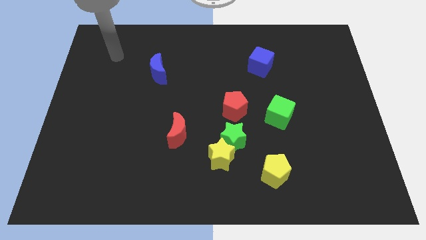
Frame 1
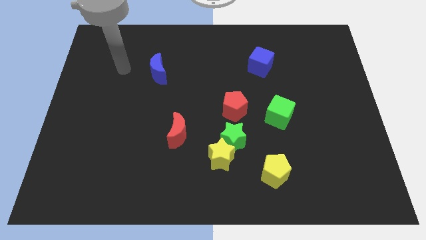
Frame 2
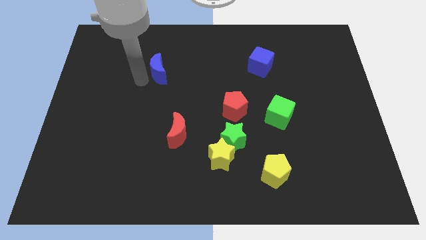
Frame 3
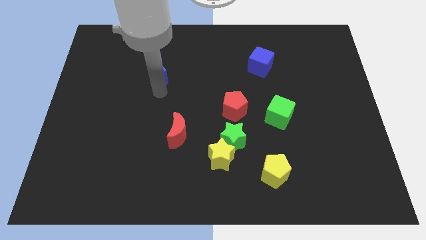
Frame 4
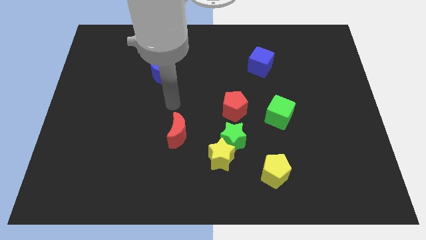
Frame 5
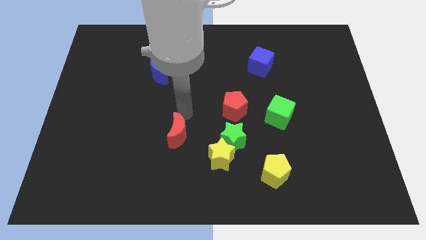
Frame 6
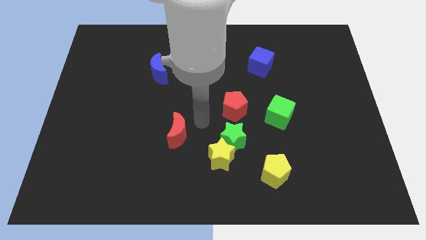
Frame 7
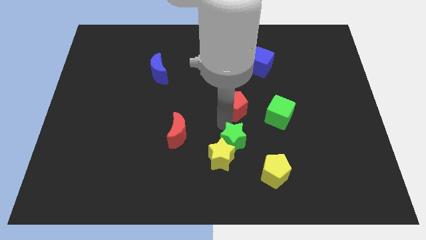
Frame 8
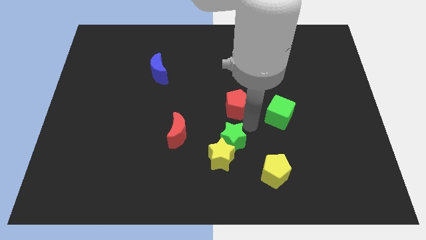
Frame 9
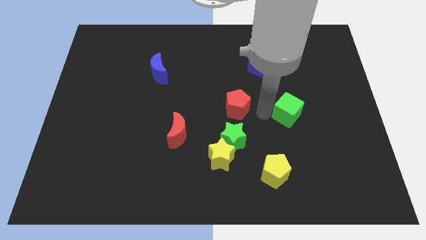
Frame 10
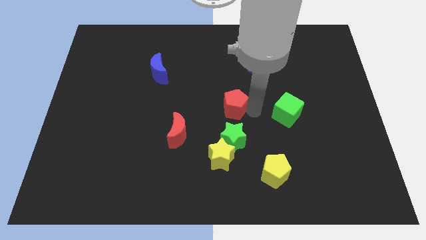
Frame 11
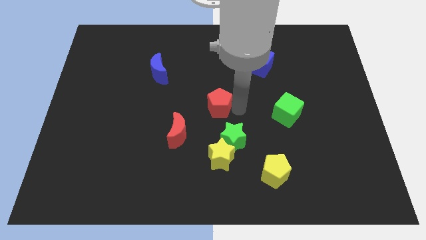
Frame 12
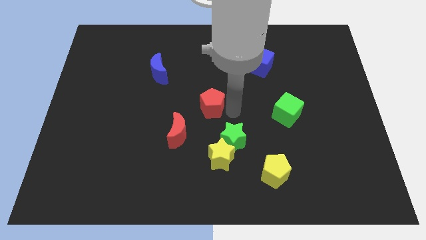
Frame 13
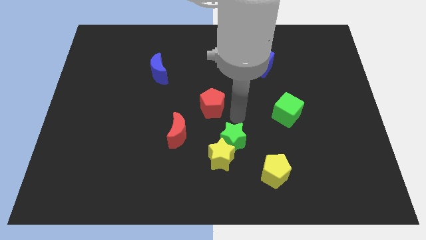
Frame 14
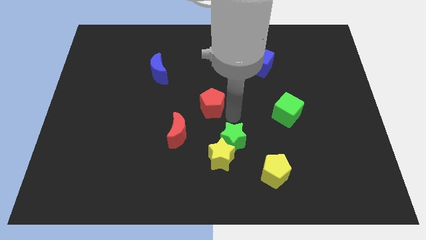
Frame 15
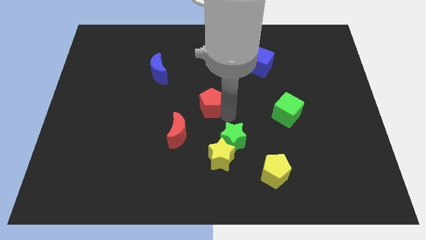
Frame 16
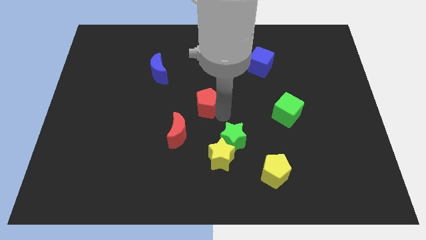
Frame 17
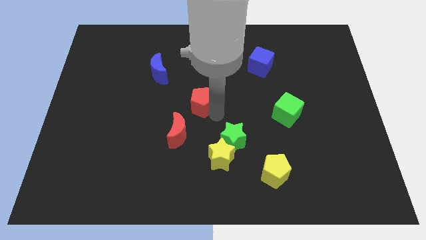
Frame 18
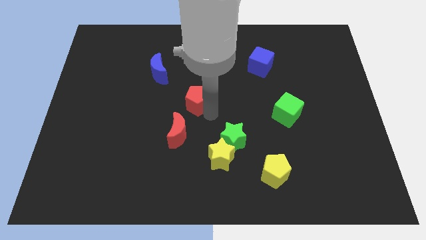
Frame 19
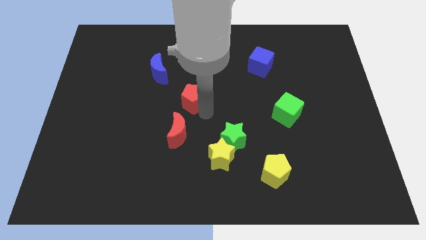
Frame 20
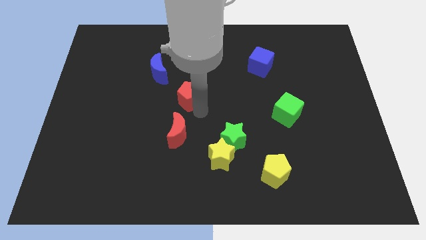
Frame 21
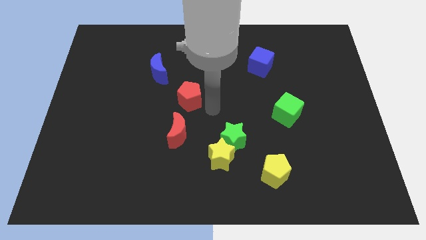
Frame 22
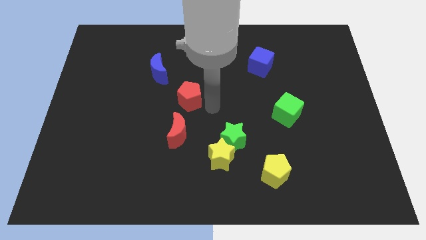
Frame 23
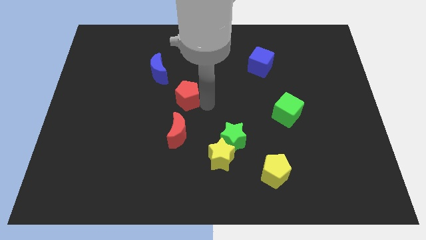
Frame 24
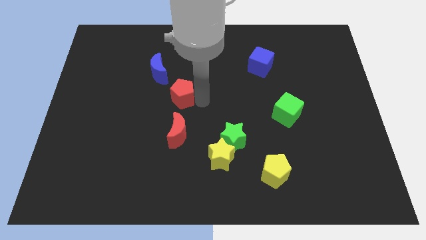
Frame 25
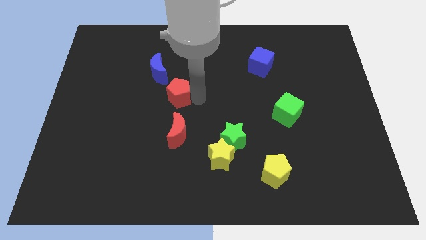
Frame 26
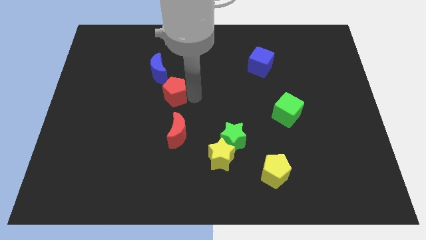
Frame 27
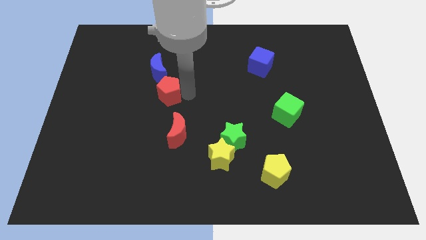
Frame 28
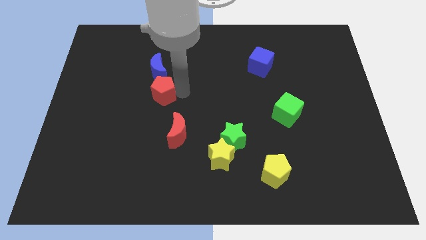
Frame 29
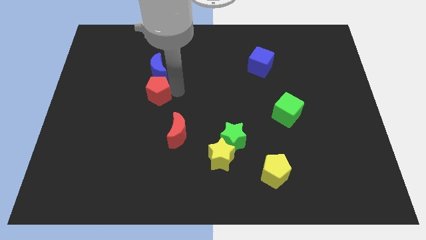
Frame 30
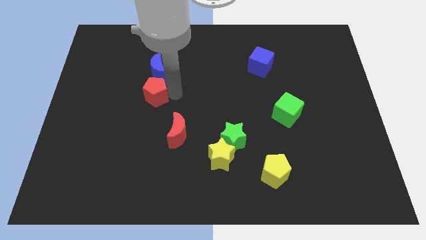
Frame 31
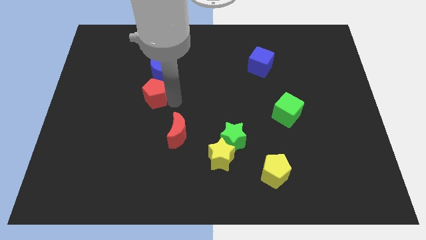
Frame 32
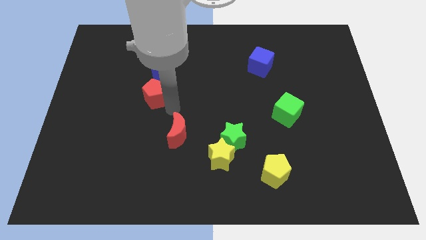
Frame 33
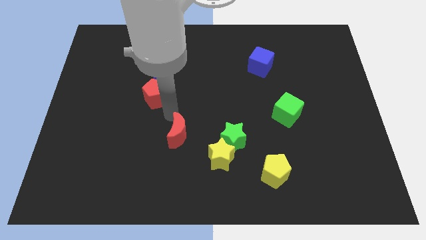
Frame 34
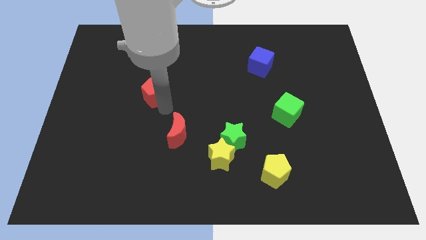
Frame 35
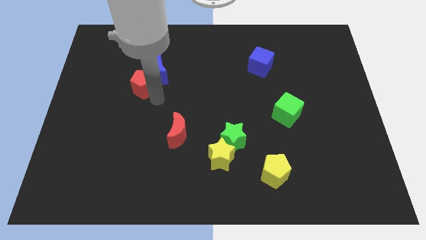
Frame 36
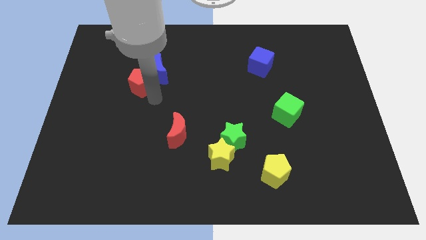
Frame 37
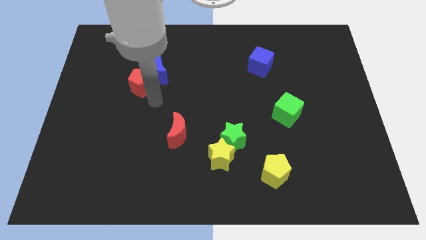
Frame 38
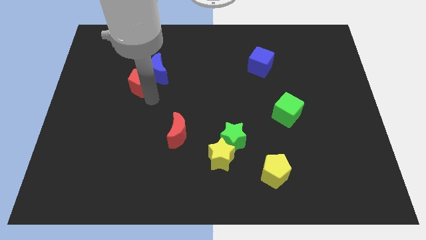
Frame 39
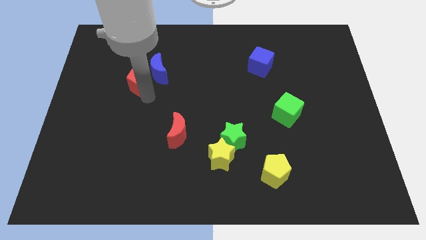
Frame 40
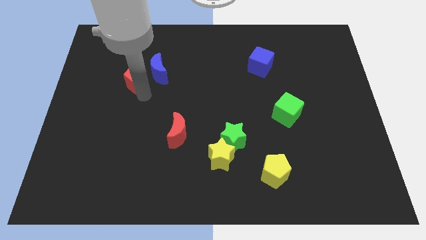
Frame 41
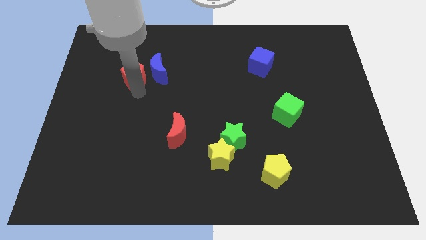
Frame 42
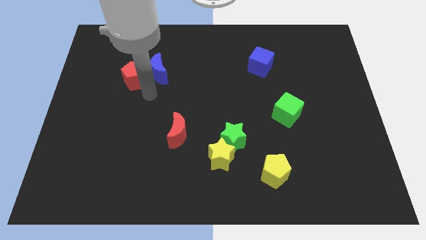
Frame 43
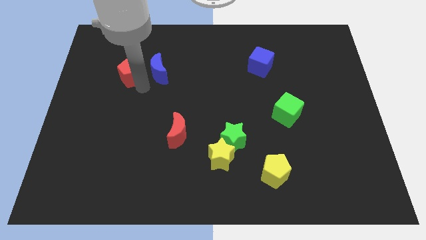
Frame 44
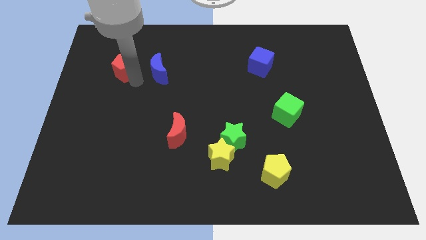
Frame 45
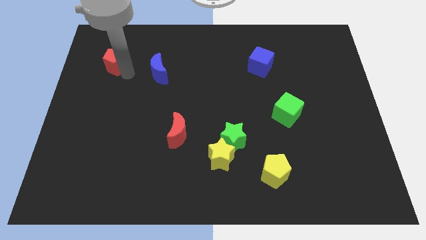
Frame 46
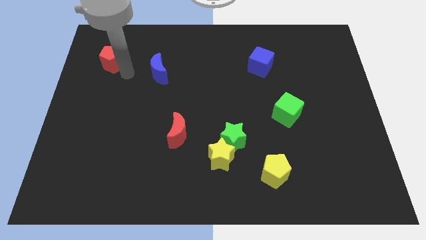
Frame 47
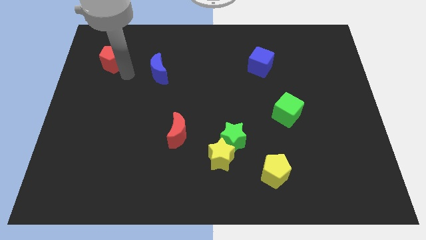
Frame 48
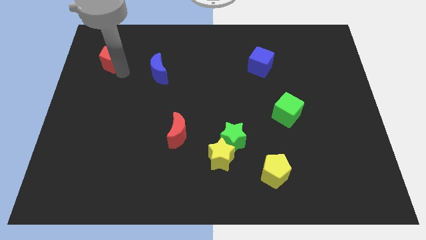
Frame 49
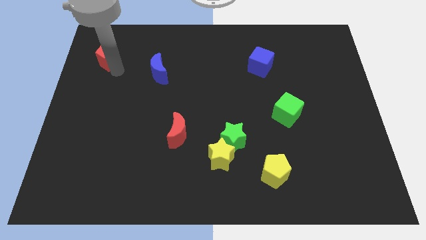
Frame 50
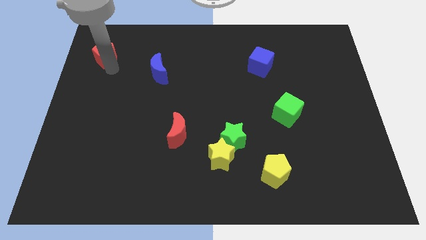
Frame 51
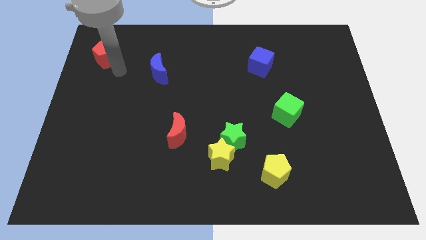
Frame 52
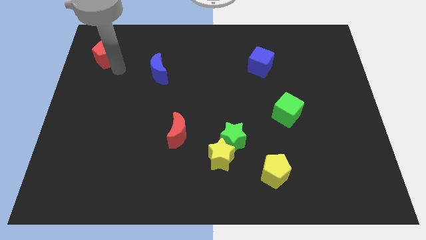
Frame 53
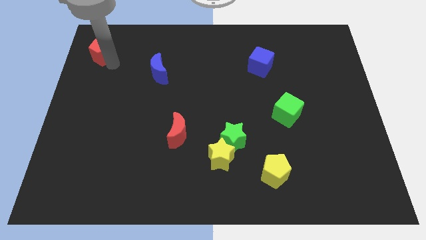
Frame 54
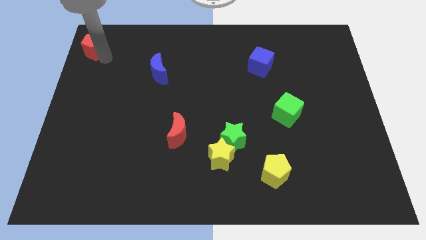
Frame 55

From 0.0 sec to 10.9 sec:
slide the red pentagon to the top left of the board

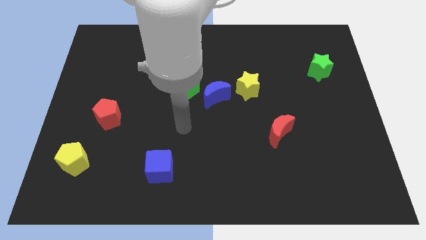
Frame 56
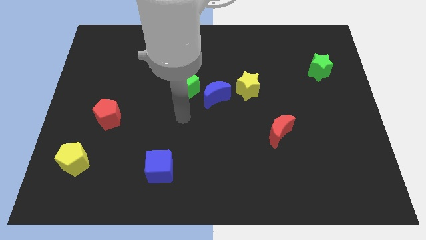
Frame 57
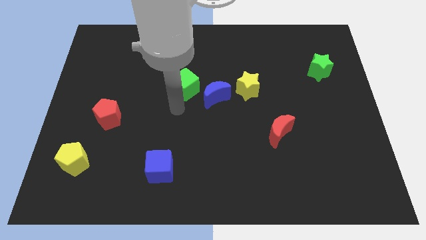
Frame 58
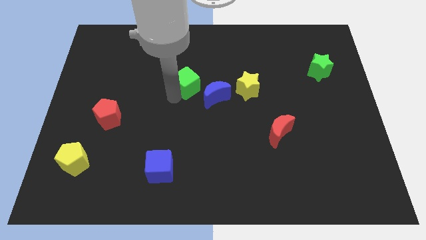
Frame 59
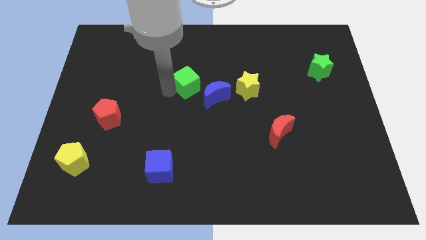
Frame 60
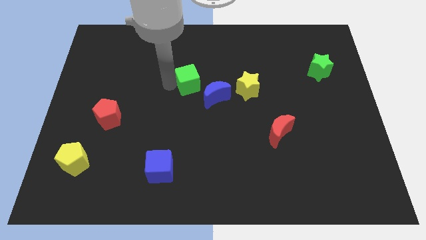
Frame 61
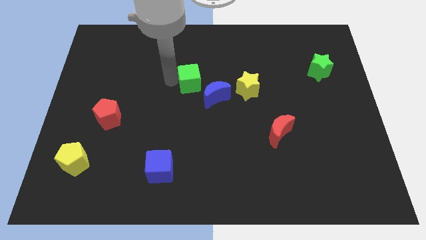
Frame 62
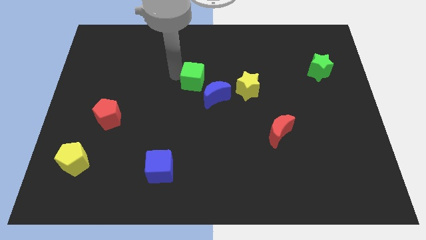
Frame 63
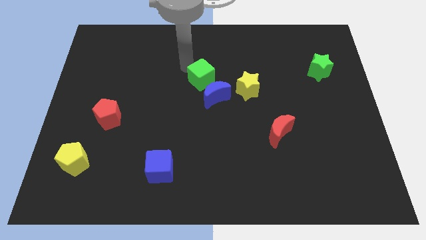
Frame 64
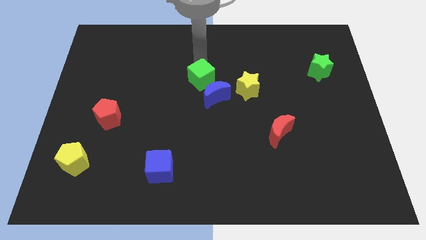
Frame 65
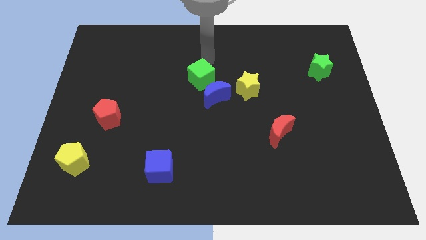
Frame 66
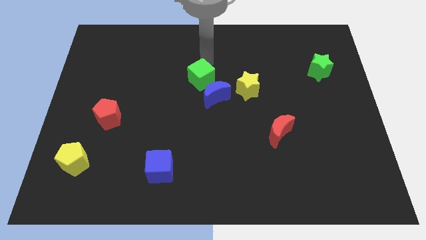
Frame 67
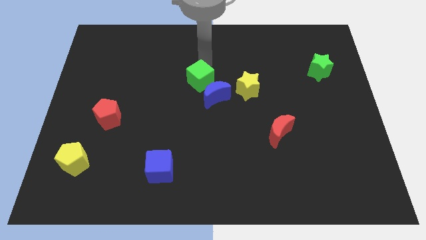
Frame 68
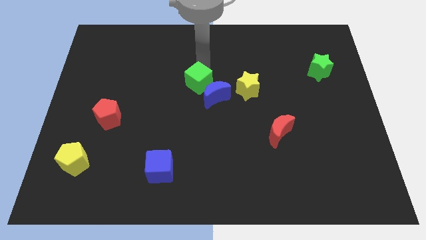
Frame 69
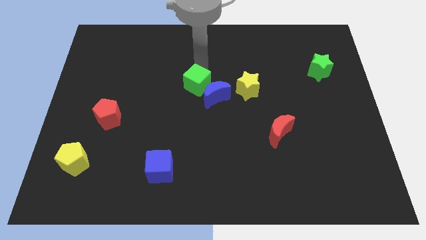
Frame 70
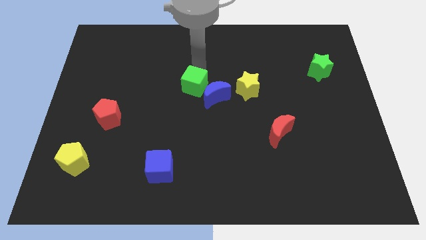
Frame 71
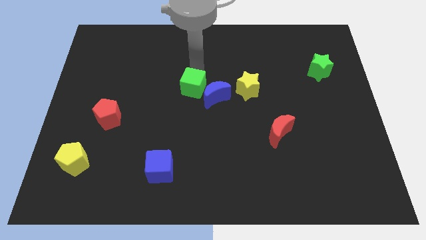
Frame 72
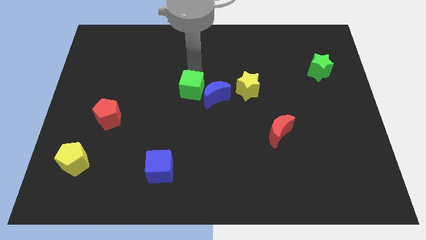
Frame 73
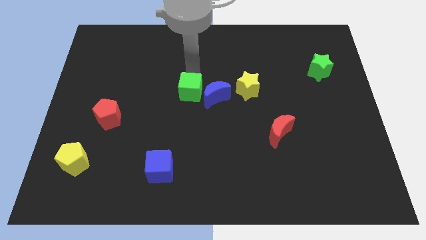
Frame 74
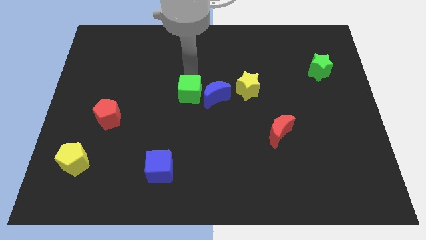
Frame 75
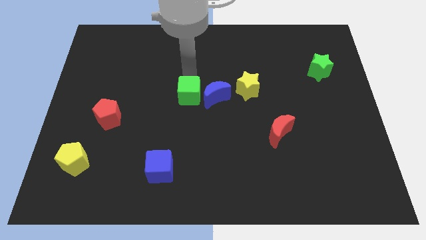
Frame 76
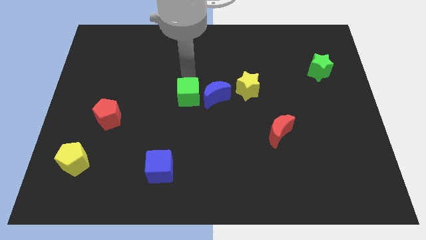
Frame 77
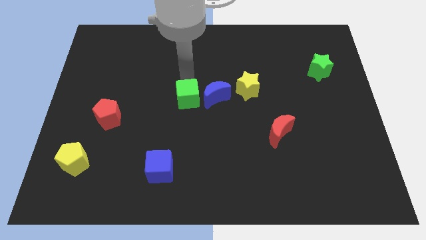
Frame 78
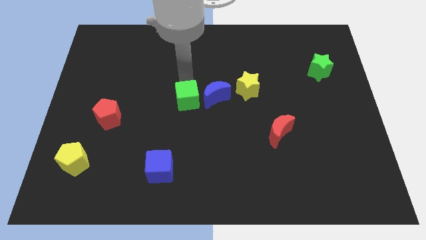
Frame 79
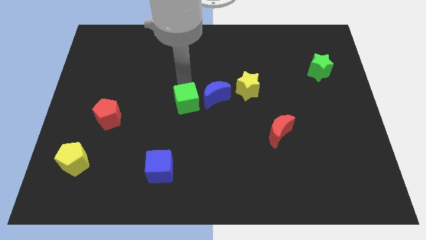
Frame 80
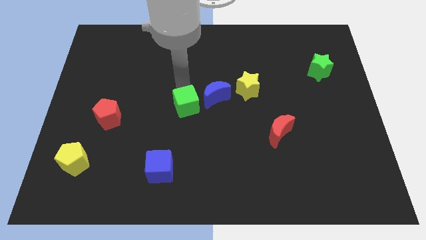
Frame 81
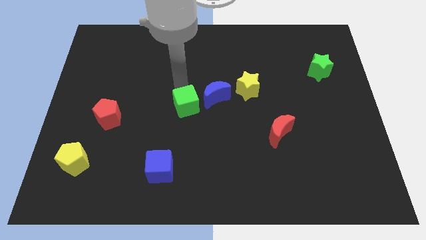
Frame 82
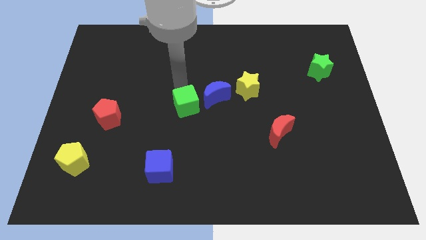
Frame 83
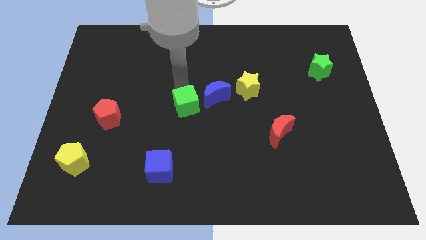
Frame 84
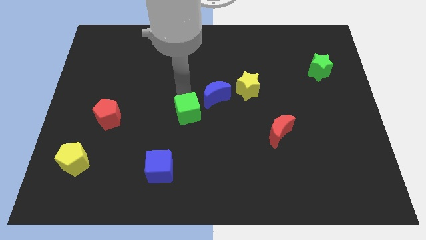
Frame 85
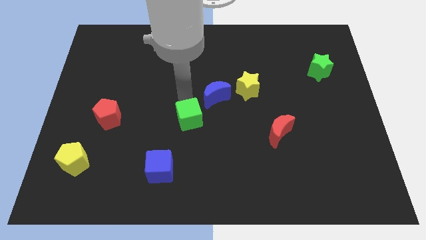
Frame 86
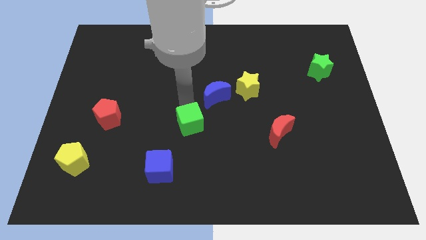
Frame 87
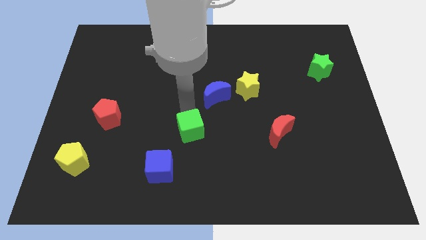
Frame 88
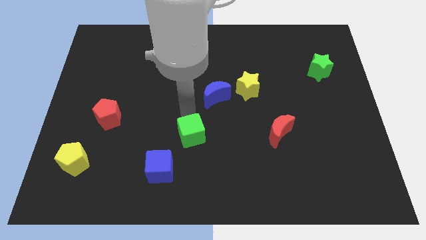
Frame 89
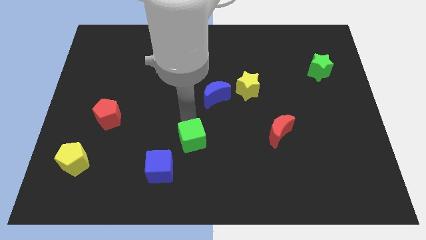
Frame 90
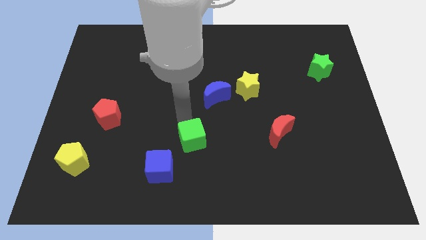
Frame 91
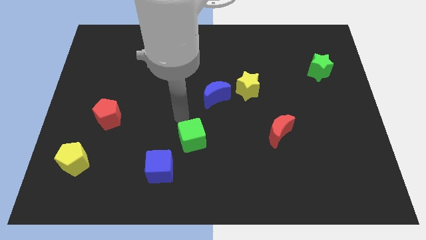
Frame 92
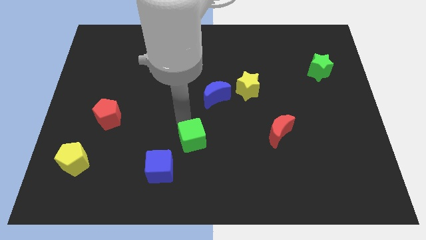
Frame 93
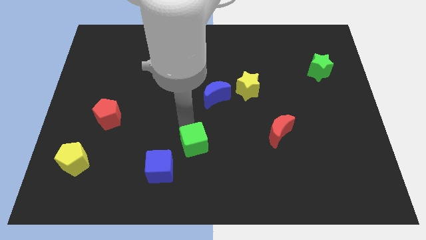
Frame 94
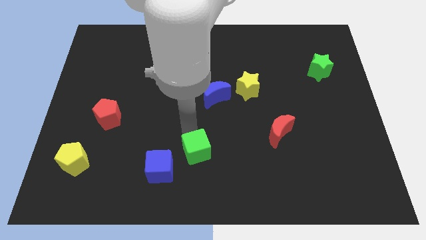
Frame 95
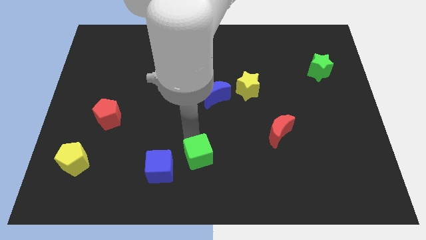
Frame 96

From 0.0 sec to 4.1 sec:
put the green cube to the bottom
